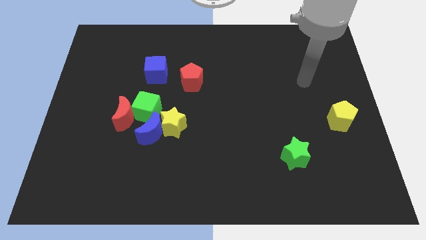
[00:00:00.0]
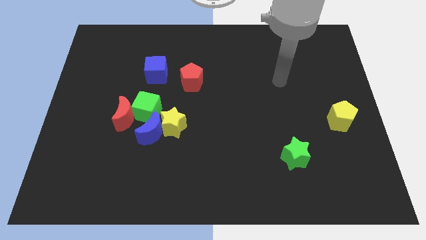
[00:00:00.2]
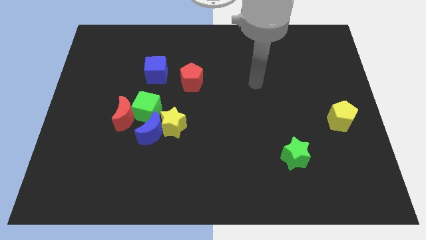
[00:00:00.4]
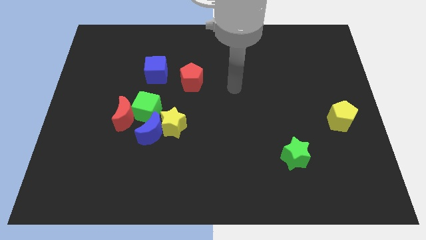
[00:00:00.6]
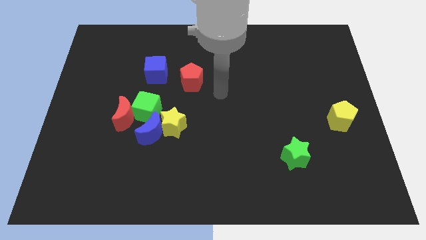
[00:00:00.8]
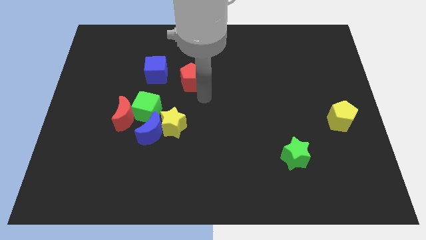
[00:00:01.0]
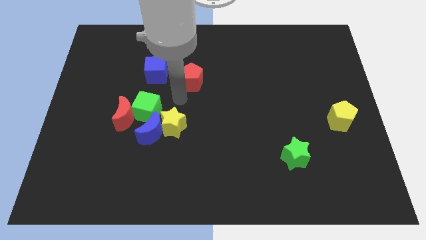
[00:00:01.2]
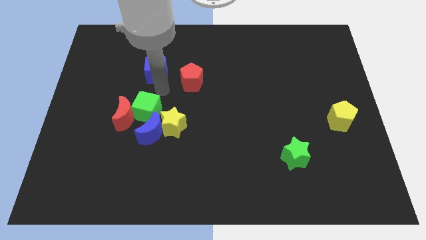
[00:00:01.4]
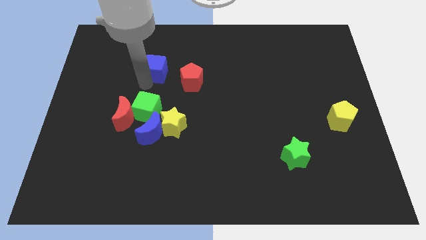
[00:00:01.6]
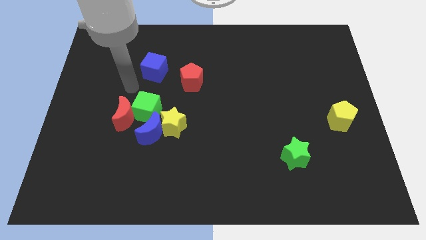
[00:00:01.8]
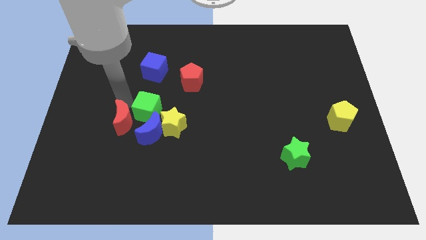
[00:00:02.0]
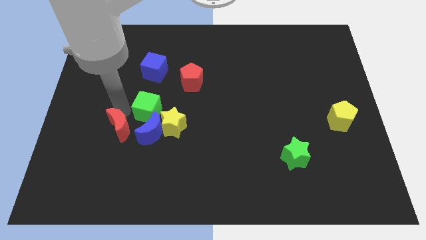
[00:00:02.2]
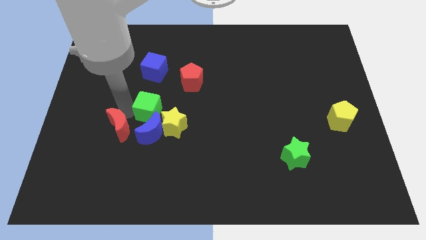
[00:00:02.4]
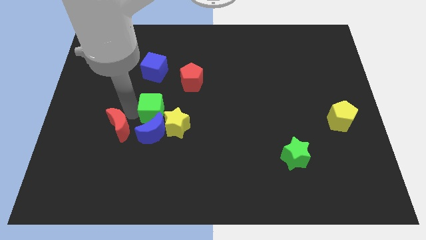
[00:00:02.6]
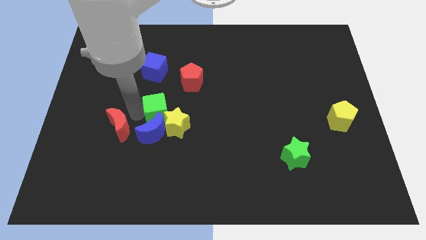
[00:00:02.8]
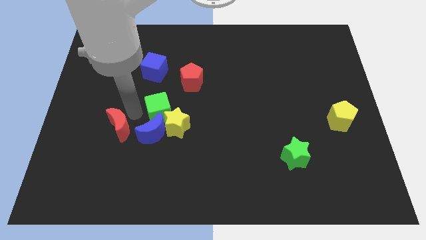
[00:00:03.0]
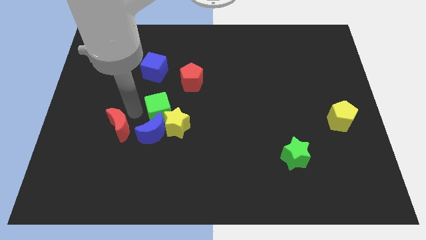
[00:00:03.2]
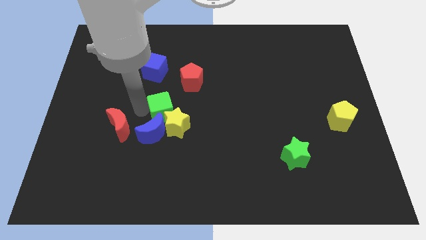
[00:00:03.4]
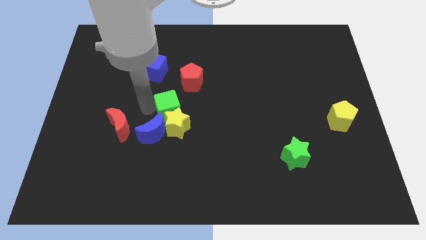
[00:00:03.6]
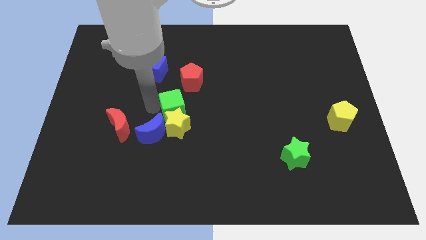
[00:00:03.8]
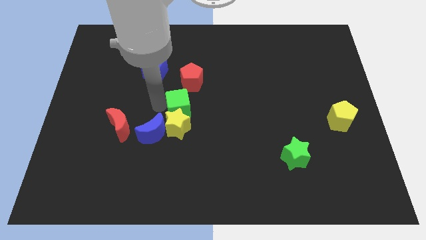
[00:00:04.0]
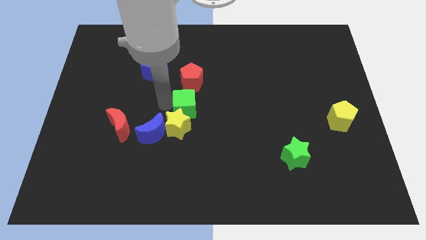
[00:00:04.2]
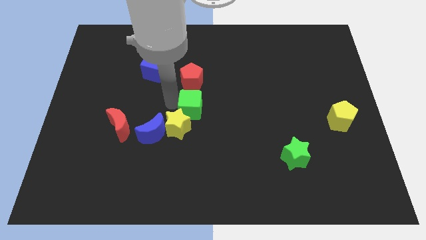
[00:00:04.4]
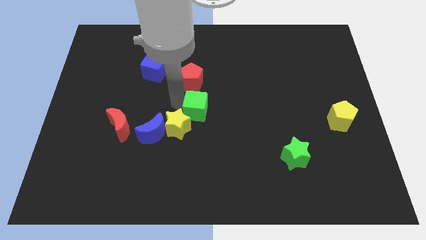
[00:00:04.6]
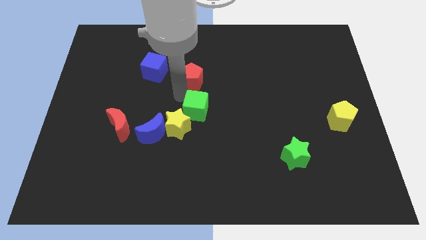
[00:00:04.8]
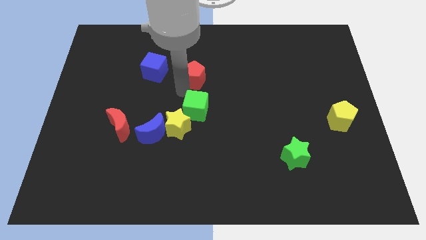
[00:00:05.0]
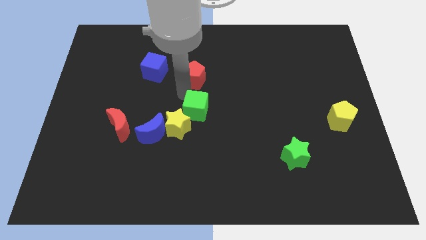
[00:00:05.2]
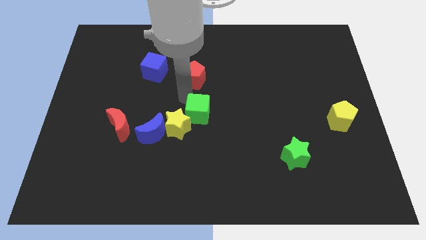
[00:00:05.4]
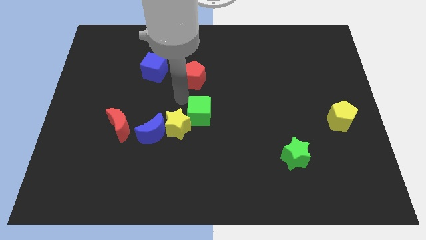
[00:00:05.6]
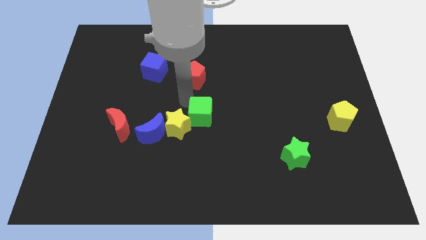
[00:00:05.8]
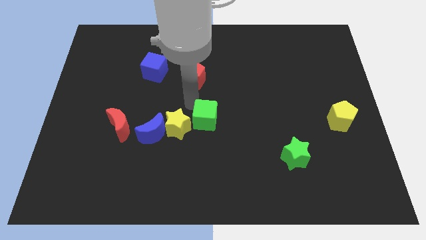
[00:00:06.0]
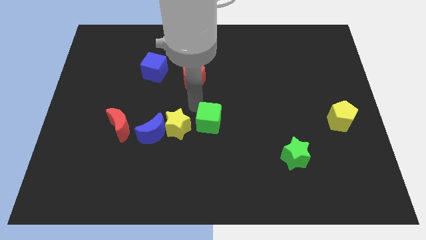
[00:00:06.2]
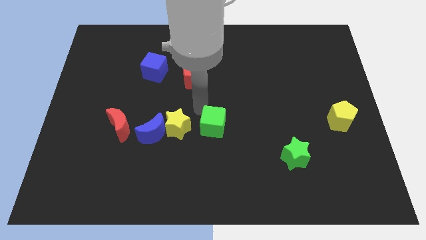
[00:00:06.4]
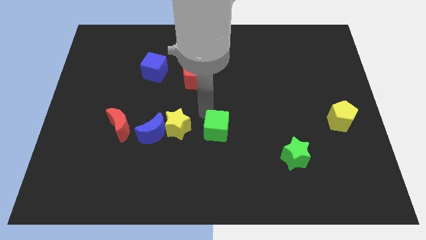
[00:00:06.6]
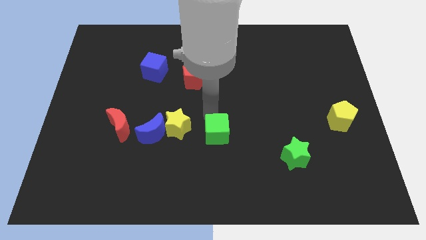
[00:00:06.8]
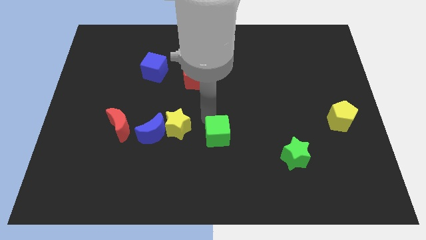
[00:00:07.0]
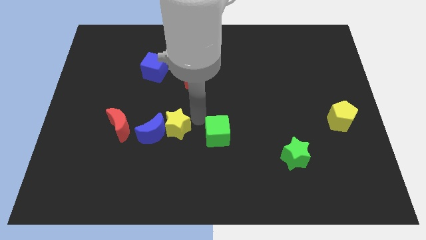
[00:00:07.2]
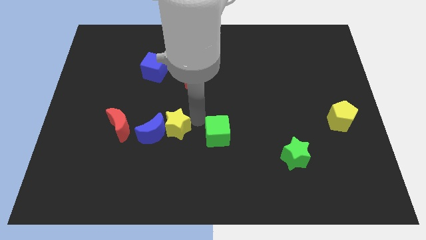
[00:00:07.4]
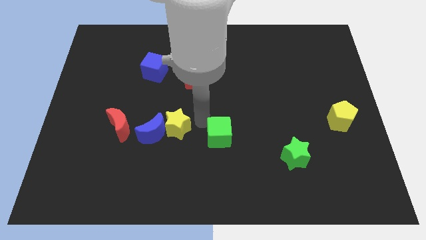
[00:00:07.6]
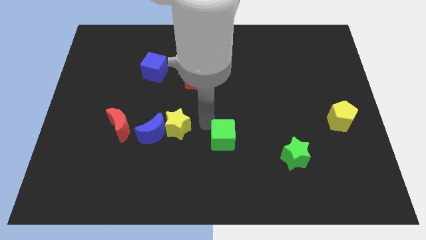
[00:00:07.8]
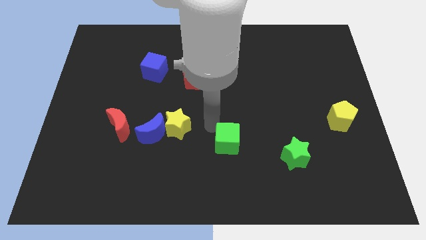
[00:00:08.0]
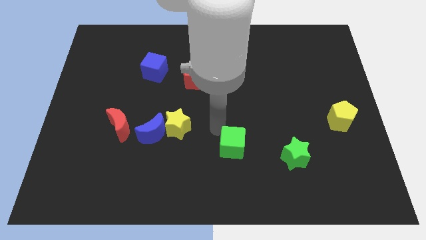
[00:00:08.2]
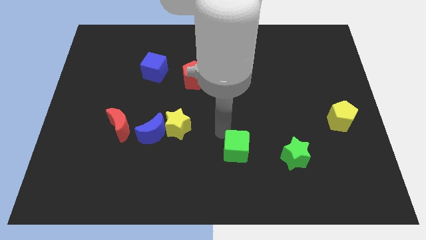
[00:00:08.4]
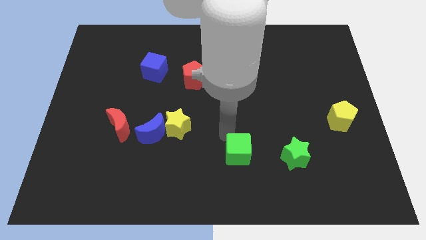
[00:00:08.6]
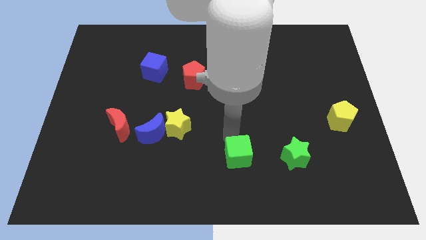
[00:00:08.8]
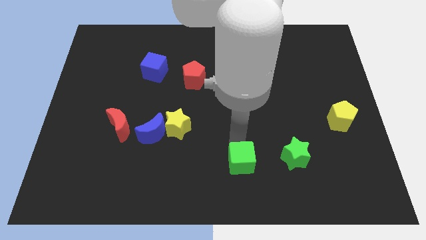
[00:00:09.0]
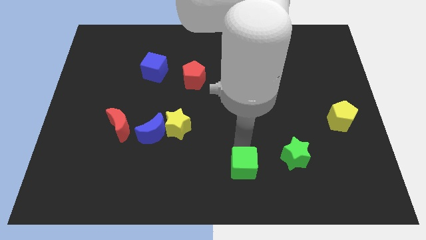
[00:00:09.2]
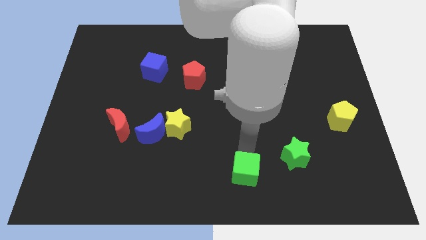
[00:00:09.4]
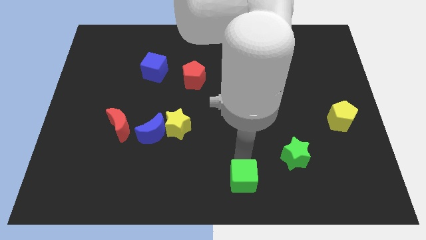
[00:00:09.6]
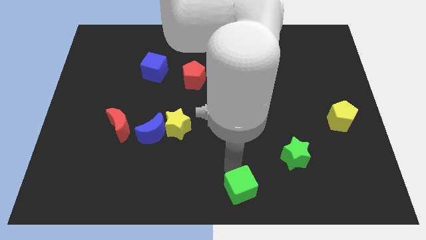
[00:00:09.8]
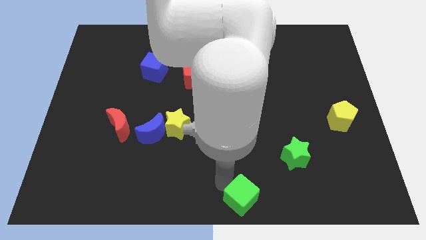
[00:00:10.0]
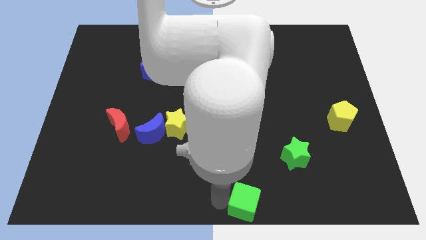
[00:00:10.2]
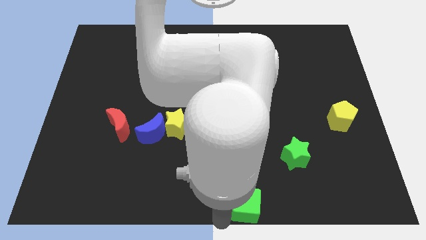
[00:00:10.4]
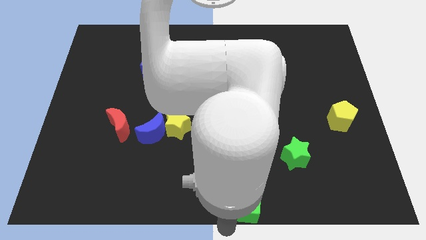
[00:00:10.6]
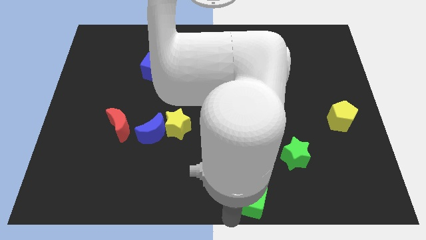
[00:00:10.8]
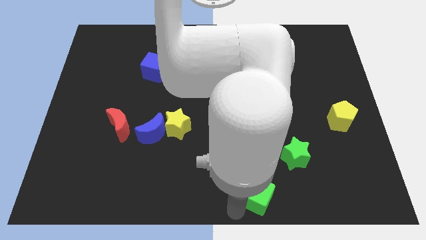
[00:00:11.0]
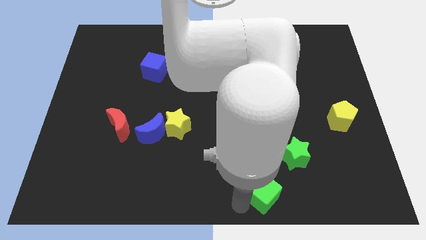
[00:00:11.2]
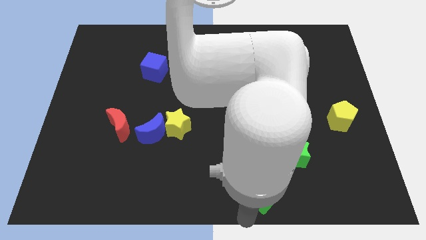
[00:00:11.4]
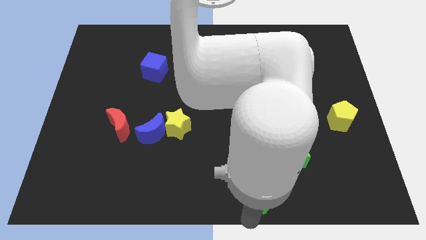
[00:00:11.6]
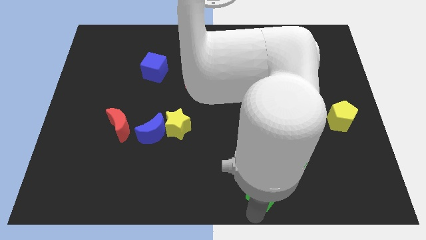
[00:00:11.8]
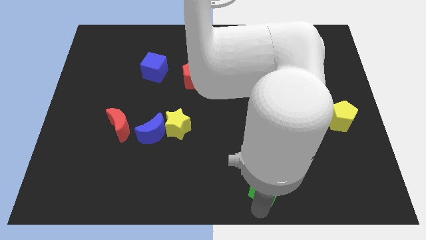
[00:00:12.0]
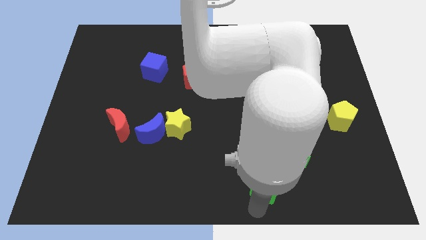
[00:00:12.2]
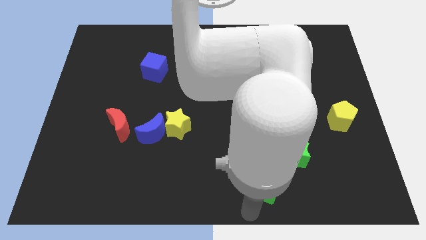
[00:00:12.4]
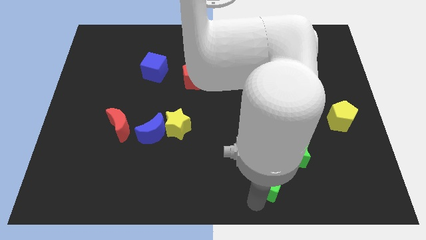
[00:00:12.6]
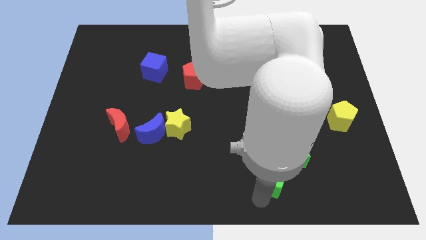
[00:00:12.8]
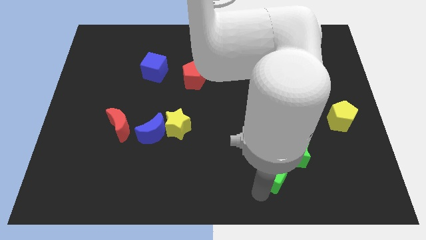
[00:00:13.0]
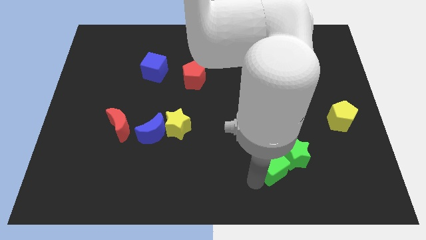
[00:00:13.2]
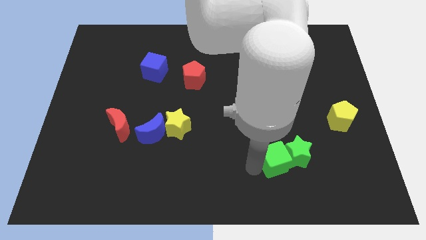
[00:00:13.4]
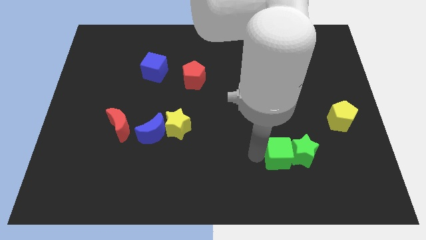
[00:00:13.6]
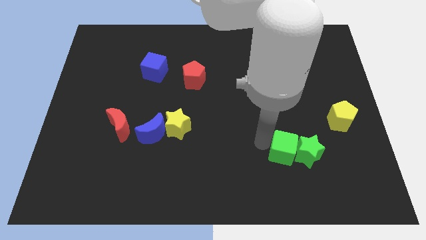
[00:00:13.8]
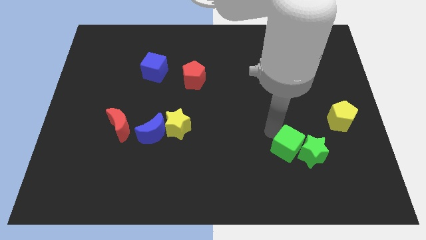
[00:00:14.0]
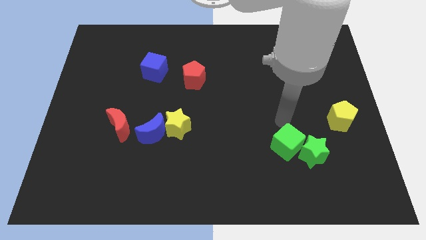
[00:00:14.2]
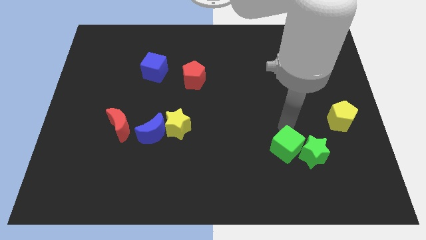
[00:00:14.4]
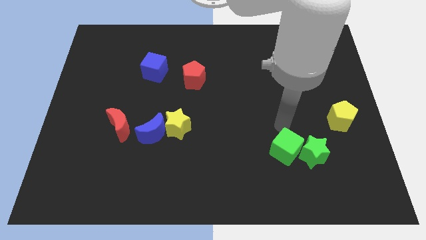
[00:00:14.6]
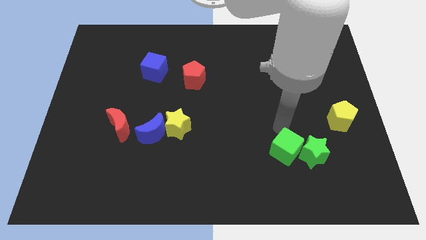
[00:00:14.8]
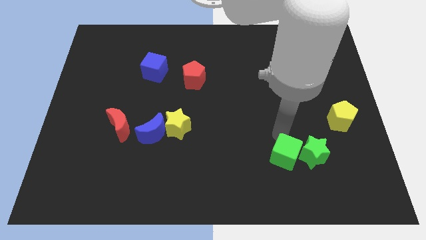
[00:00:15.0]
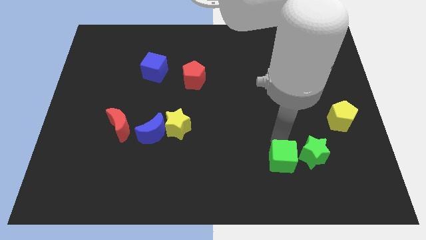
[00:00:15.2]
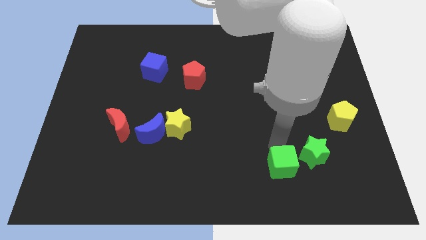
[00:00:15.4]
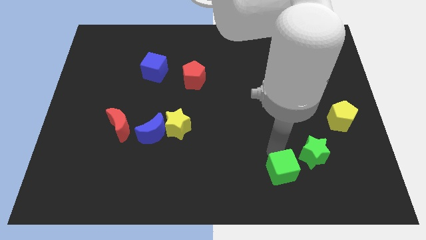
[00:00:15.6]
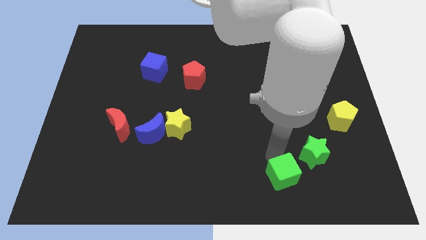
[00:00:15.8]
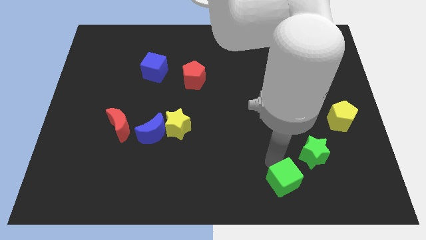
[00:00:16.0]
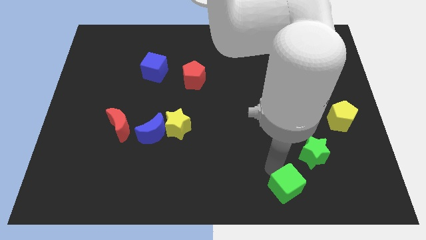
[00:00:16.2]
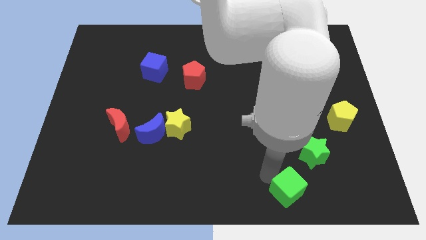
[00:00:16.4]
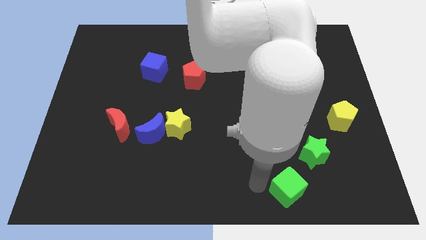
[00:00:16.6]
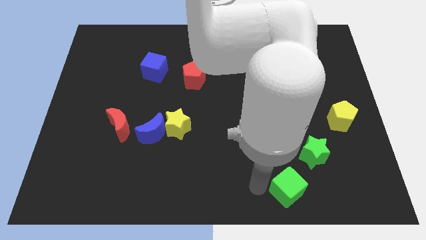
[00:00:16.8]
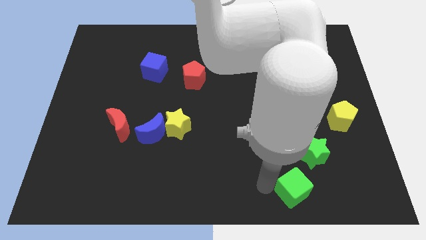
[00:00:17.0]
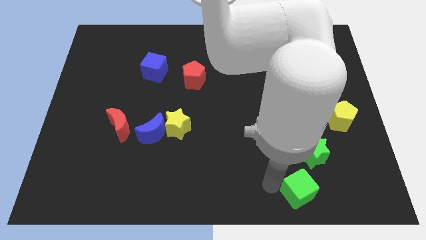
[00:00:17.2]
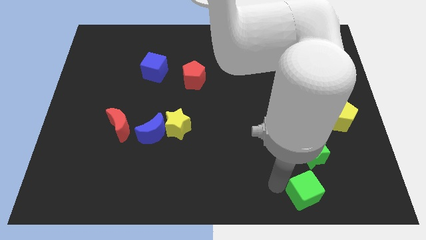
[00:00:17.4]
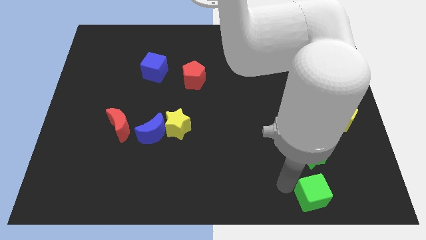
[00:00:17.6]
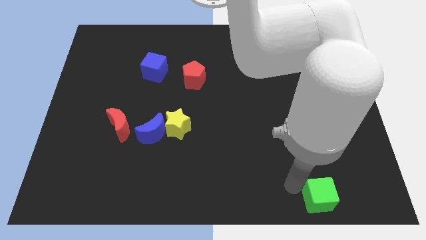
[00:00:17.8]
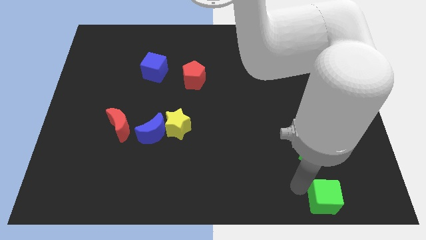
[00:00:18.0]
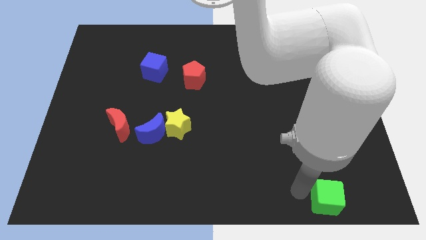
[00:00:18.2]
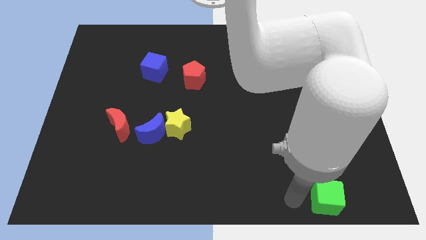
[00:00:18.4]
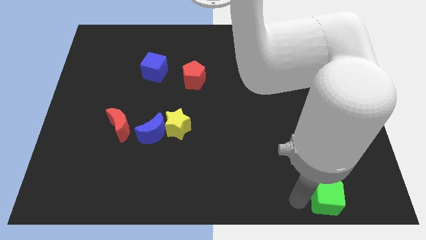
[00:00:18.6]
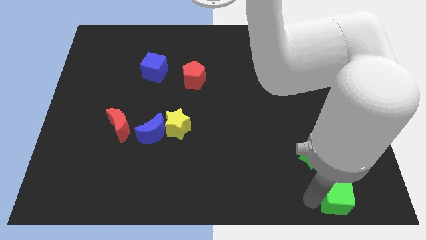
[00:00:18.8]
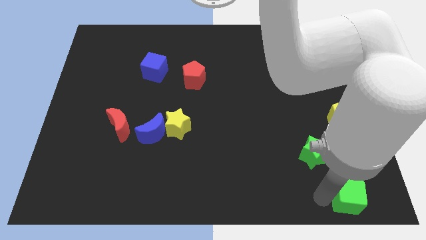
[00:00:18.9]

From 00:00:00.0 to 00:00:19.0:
move the green cube to the bottom right
